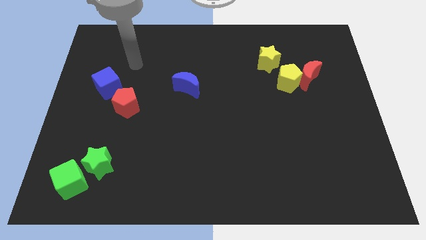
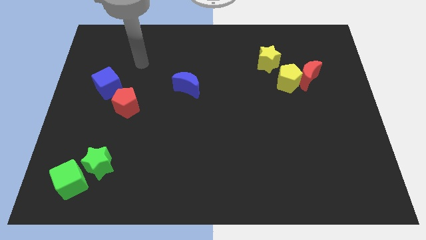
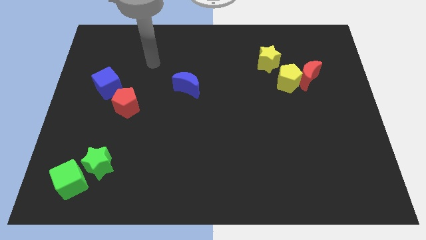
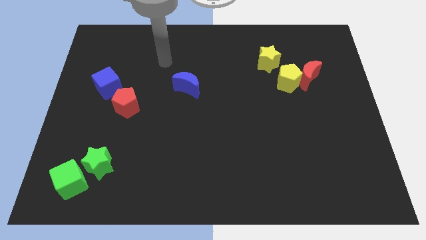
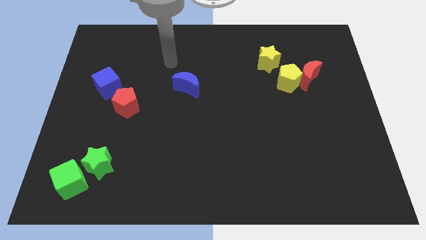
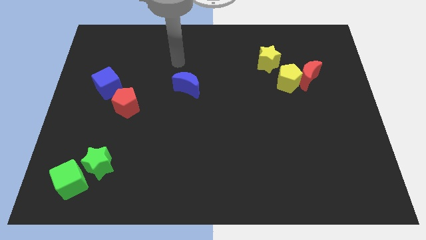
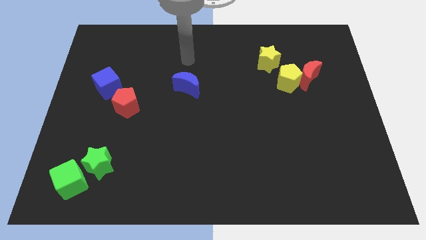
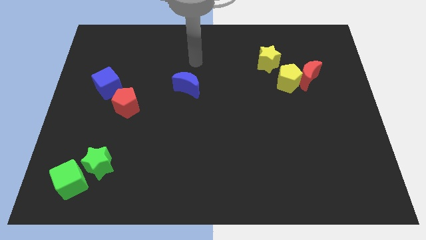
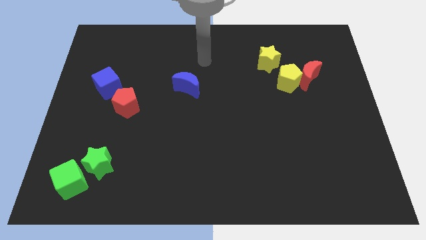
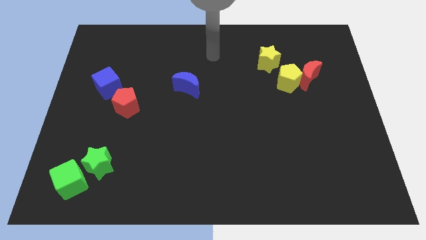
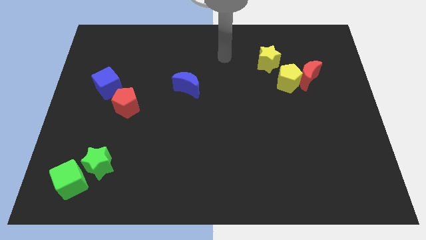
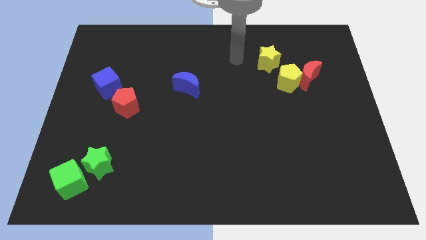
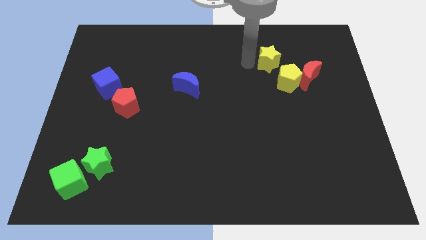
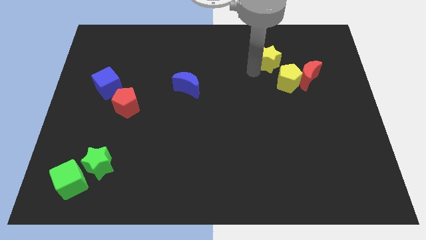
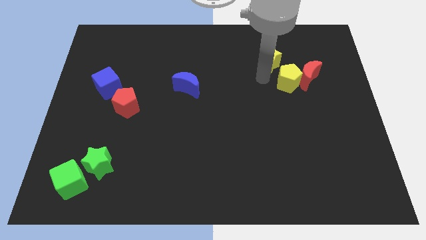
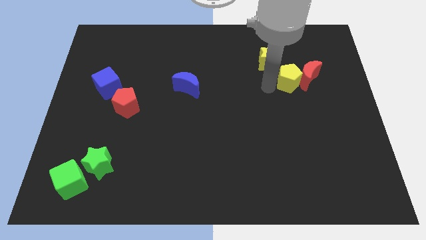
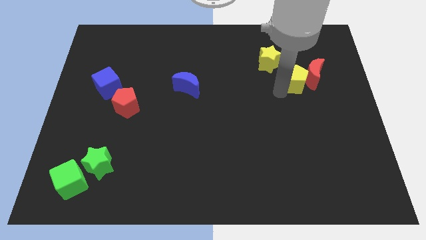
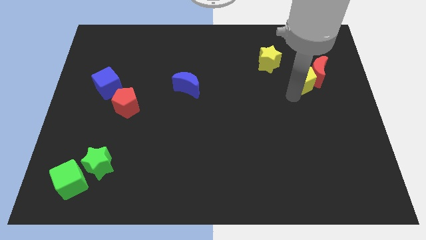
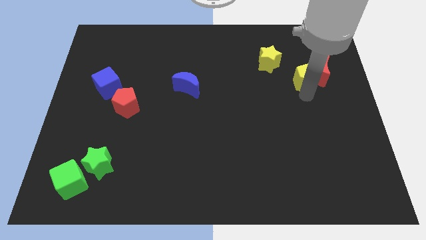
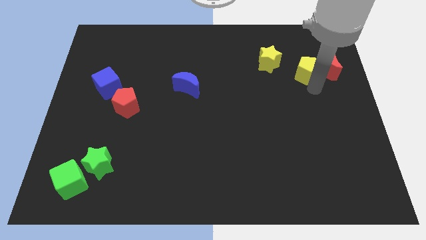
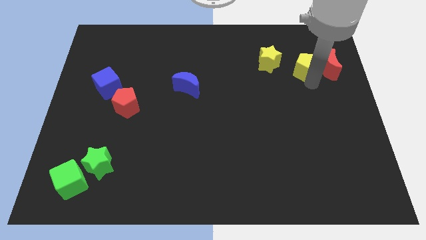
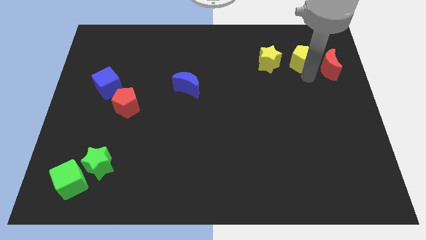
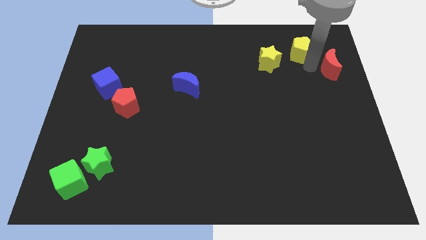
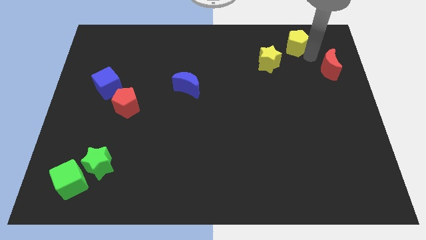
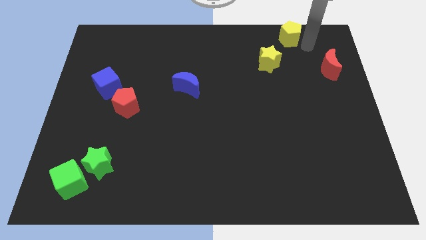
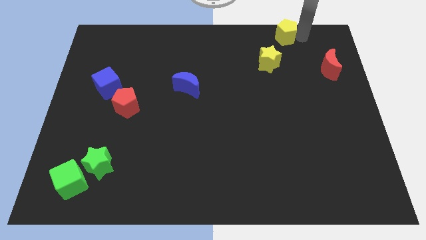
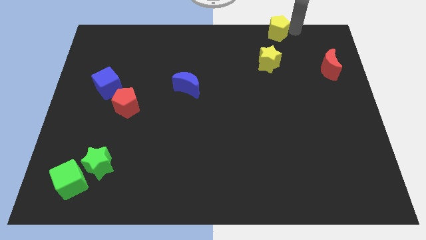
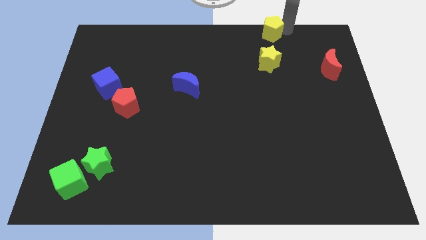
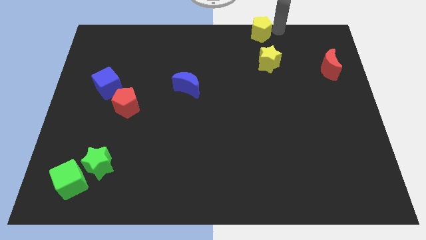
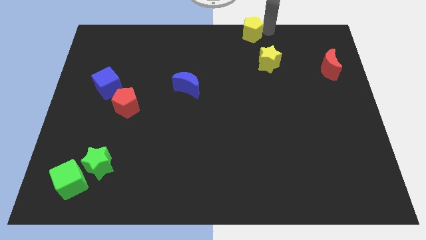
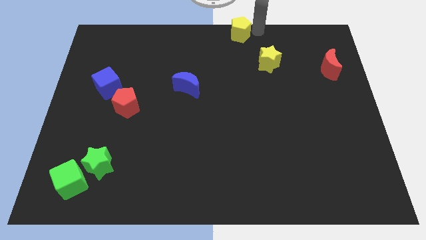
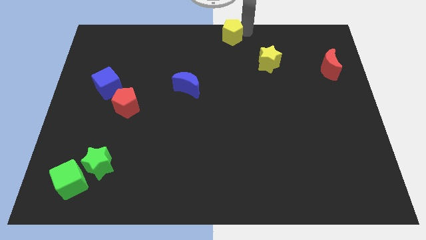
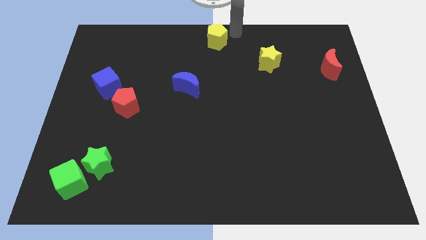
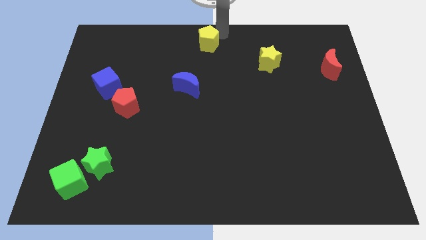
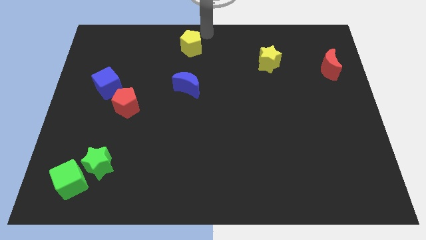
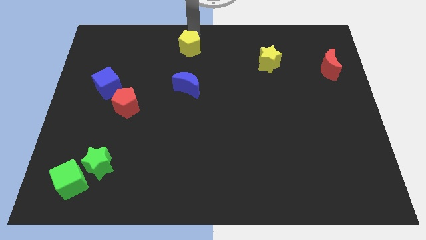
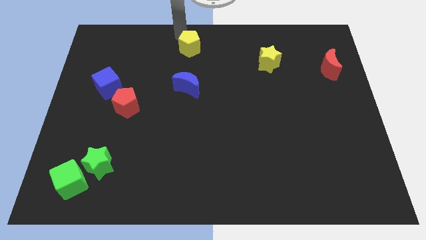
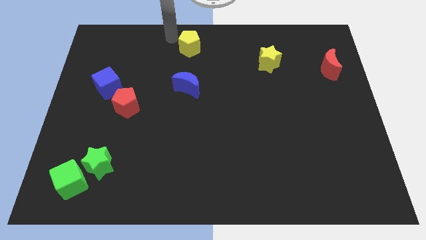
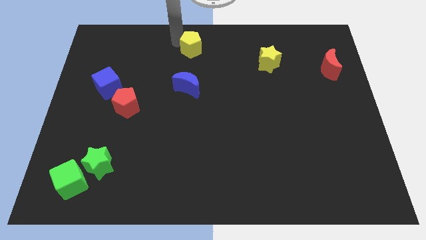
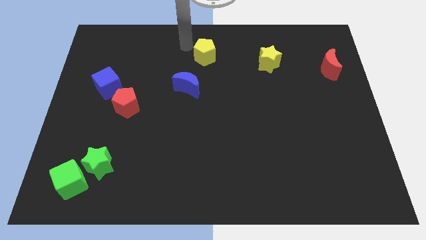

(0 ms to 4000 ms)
slightly move the yellow pentagon to the left

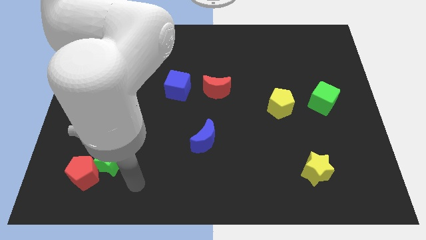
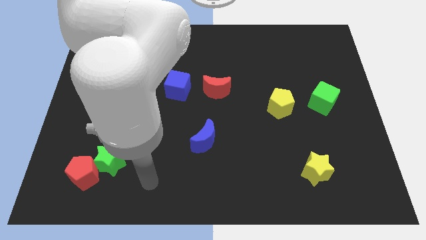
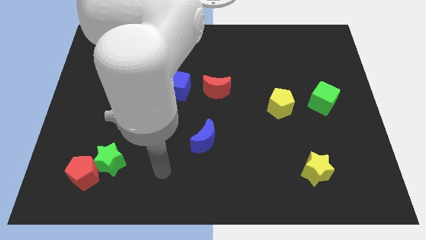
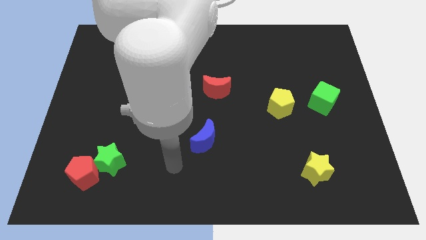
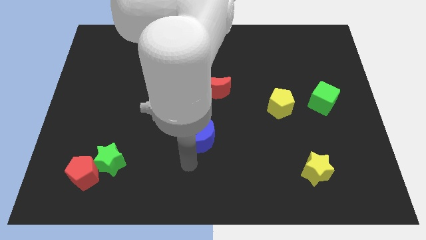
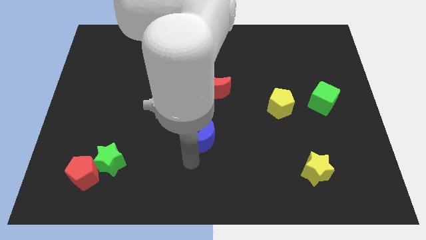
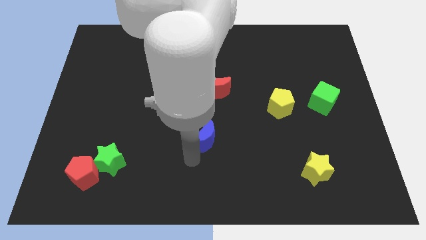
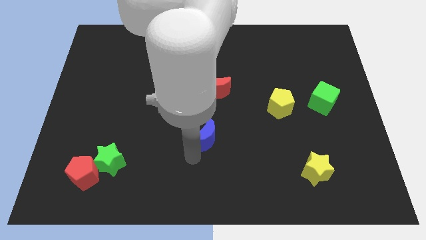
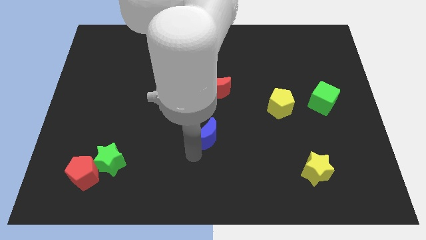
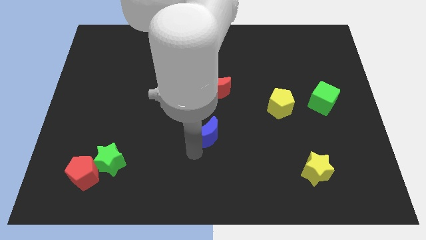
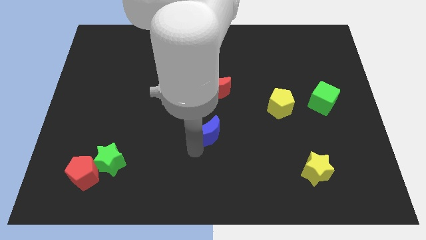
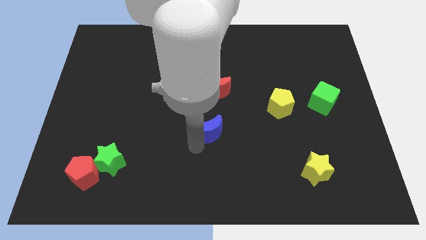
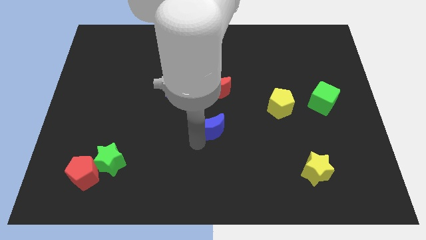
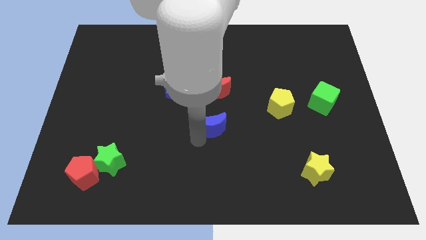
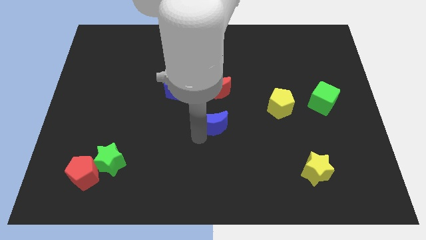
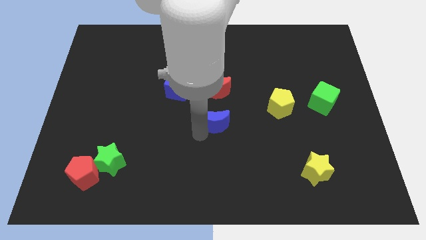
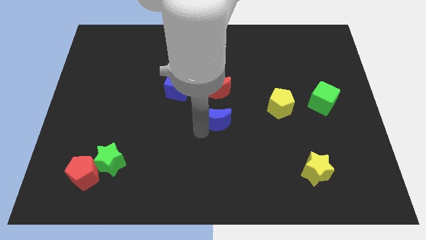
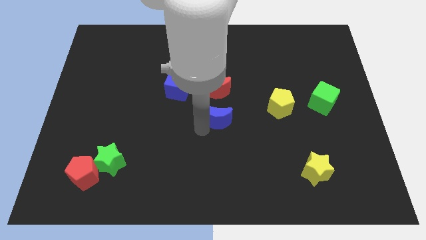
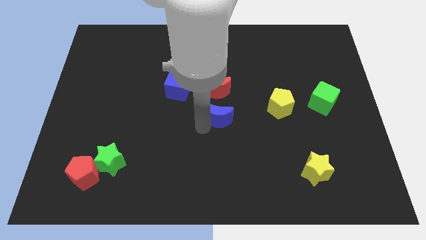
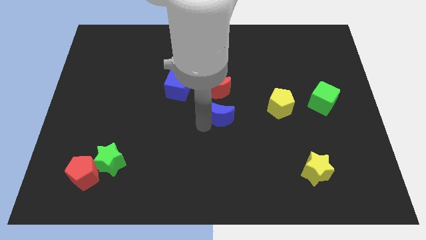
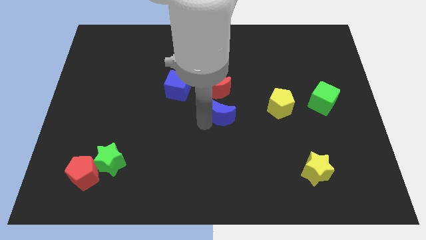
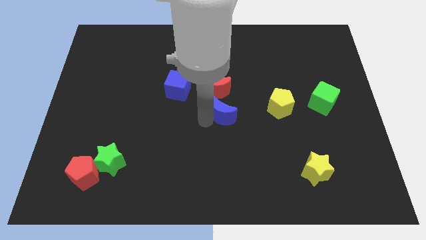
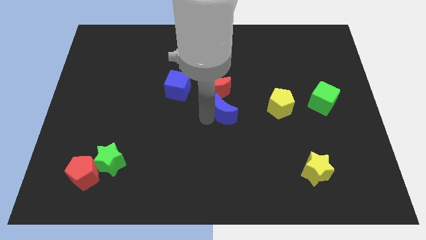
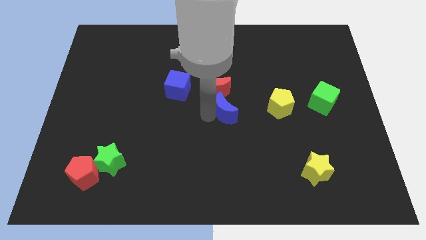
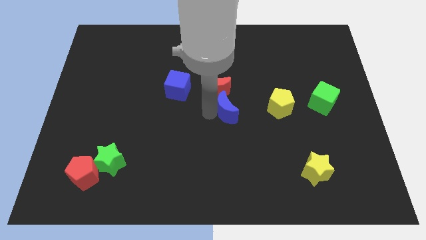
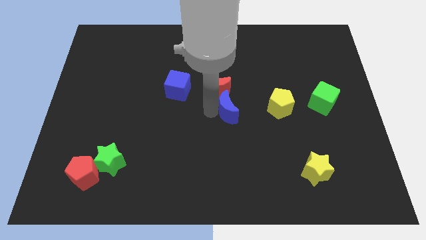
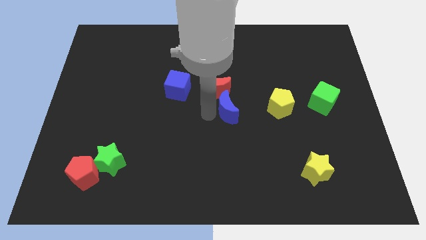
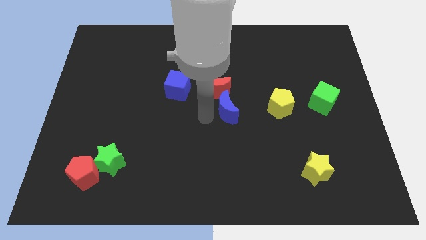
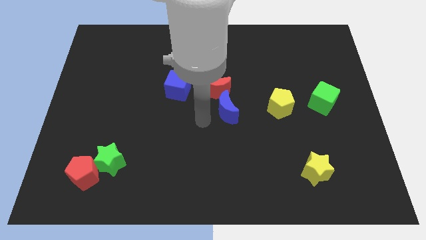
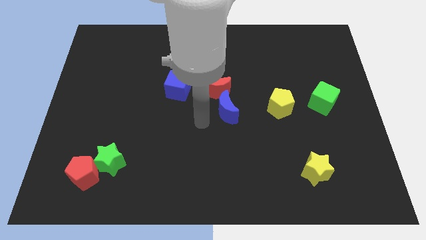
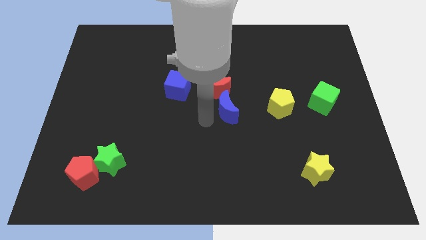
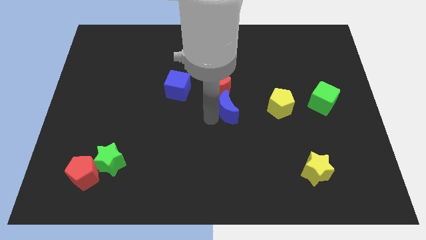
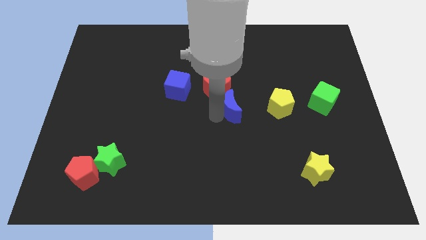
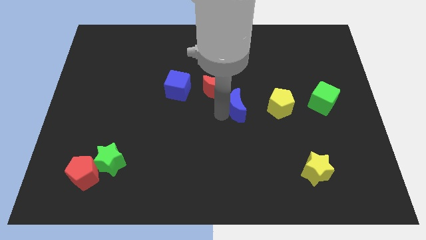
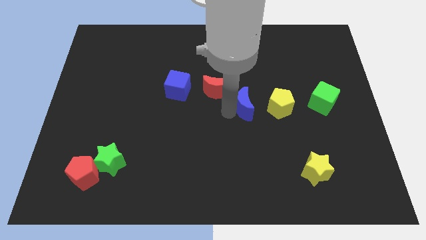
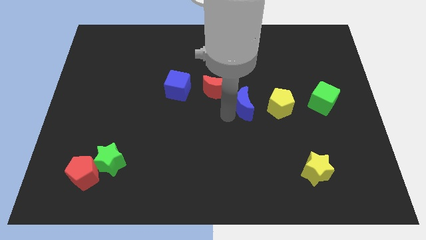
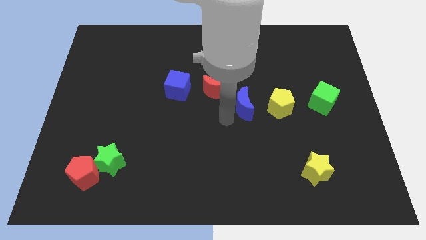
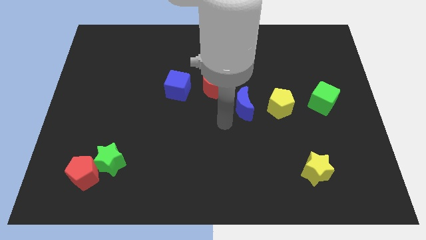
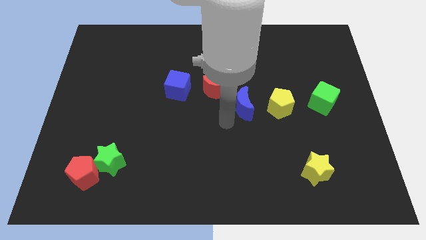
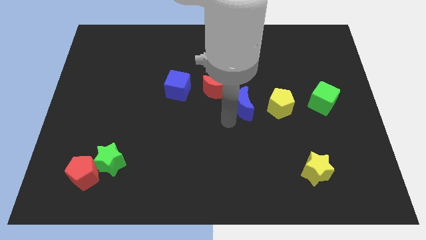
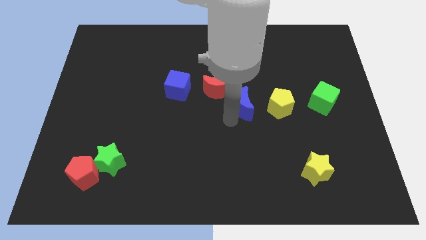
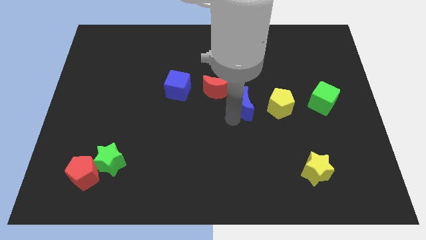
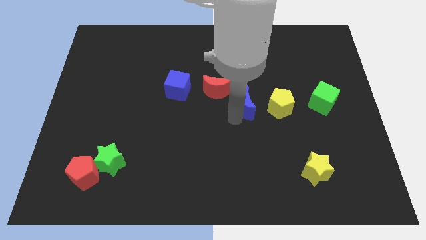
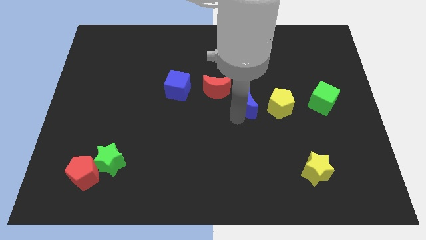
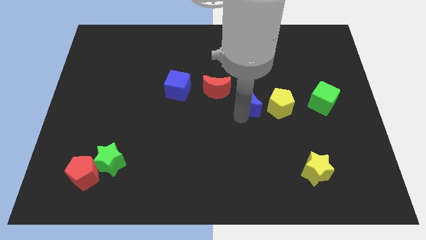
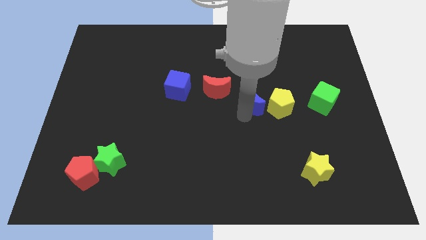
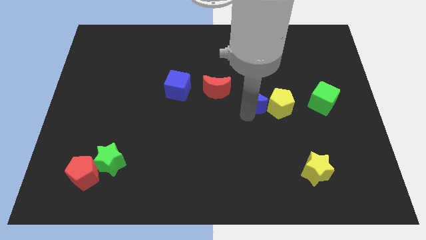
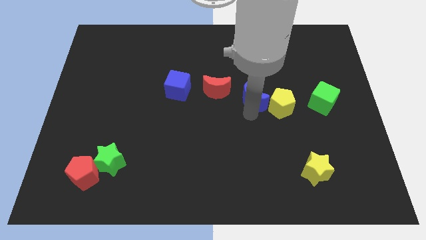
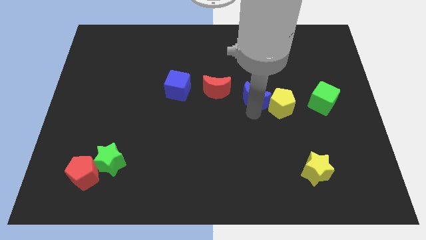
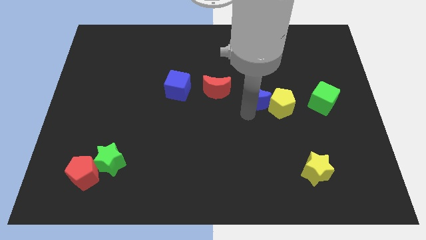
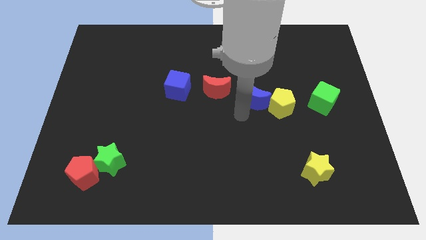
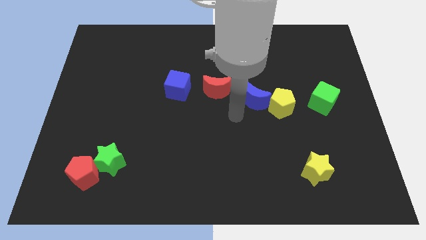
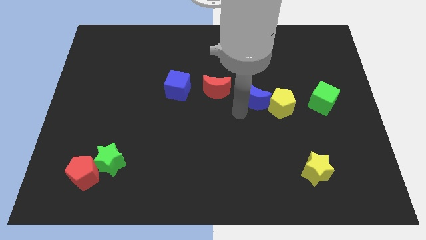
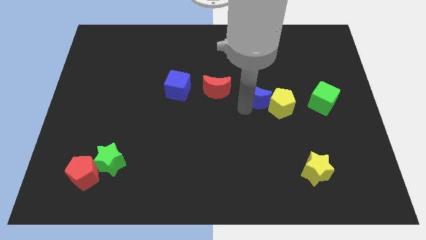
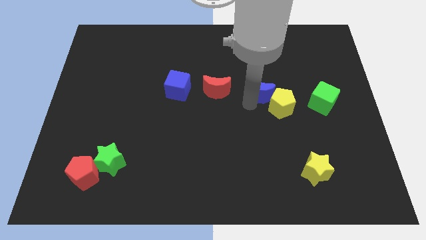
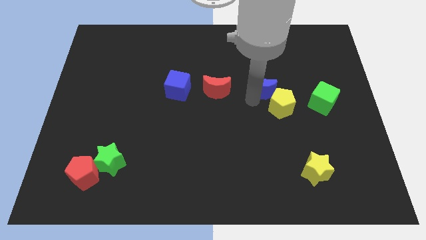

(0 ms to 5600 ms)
slide the blue moon upwards and then to the right
